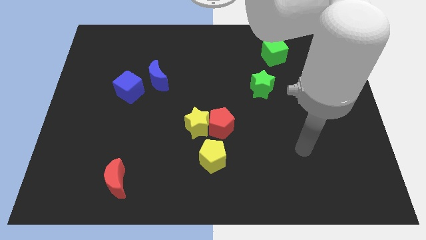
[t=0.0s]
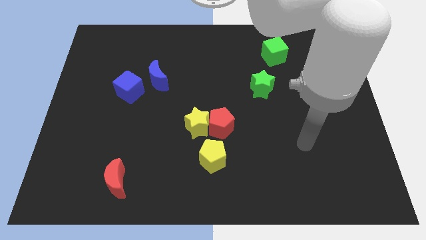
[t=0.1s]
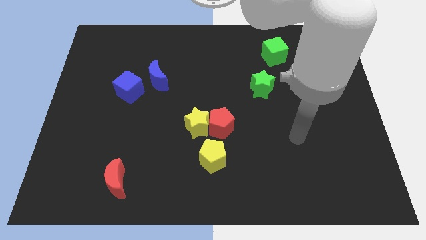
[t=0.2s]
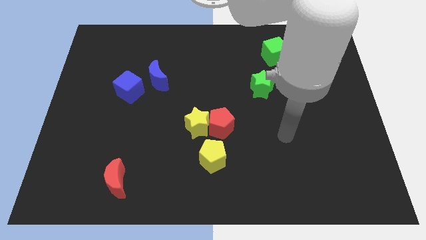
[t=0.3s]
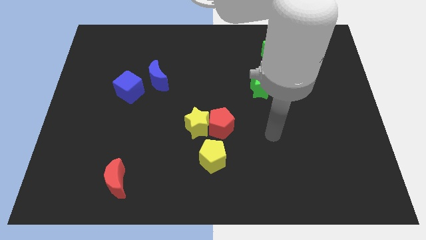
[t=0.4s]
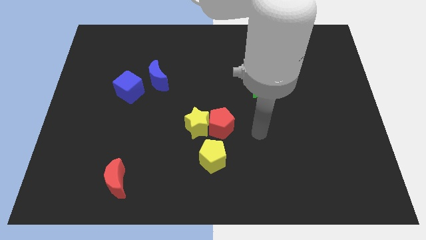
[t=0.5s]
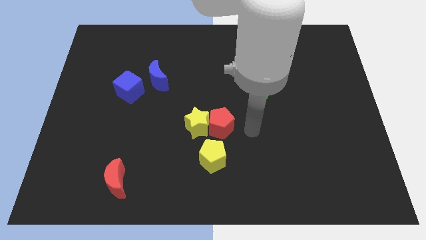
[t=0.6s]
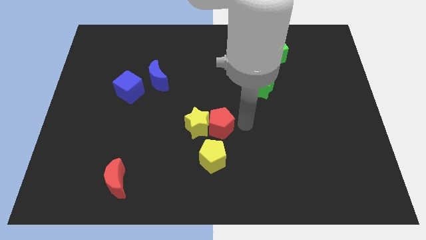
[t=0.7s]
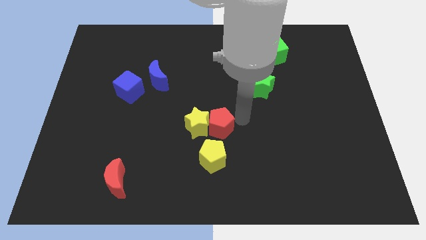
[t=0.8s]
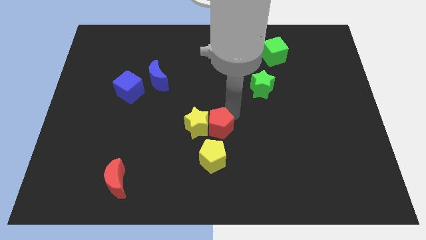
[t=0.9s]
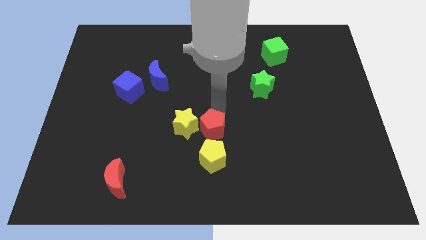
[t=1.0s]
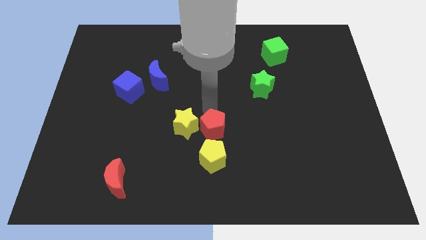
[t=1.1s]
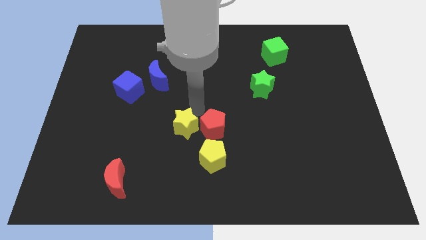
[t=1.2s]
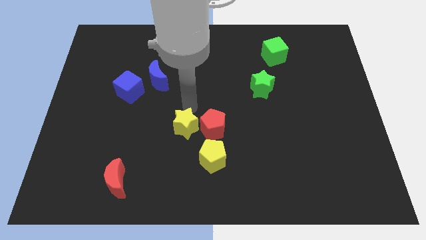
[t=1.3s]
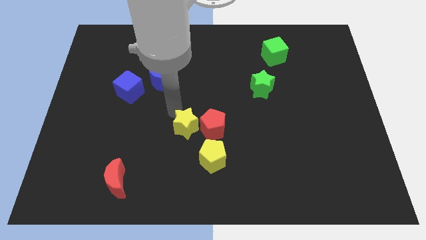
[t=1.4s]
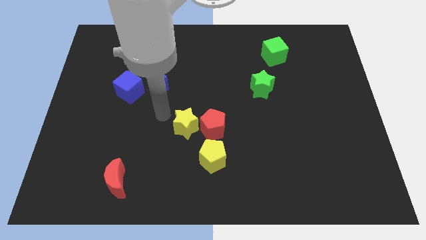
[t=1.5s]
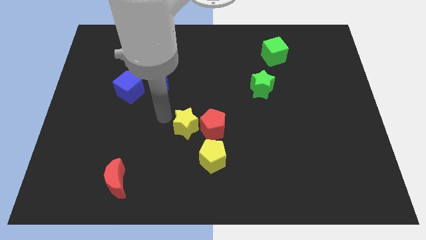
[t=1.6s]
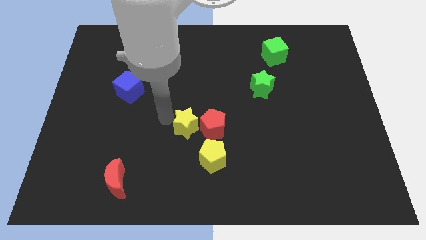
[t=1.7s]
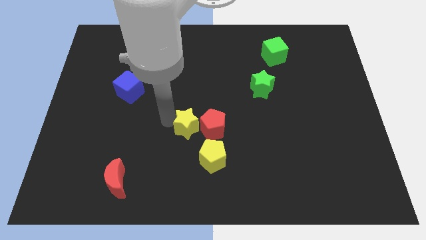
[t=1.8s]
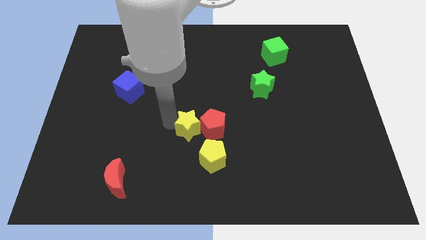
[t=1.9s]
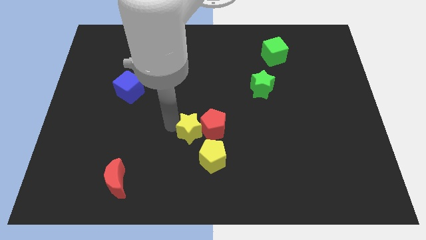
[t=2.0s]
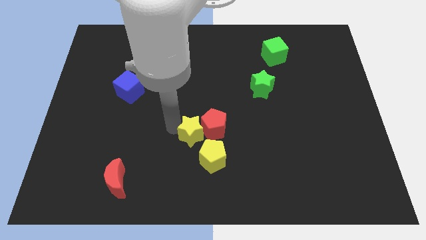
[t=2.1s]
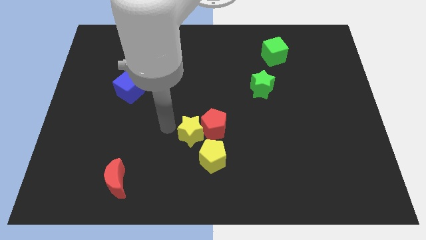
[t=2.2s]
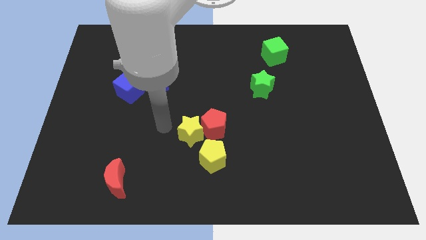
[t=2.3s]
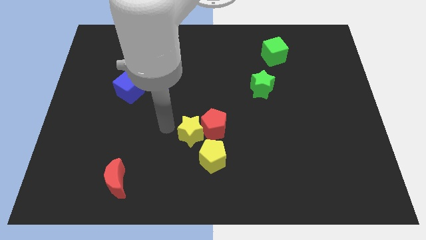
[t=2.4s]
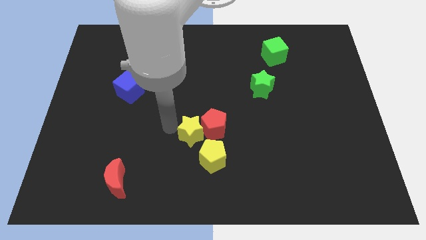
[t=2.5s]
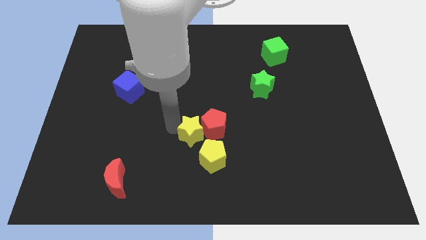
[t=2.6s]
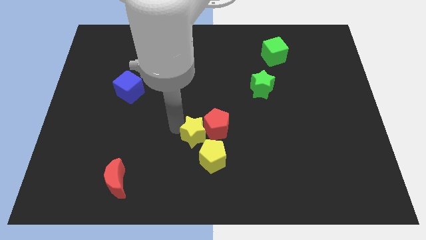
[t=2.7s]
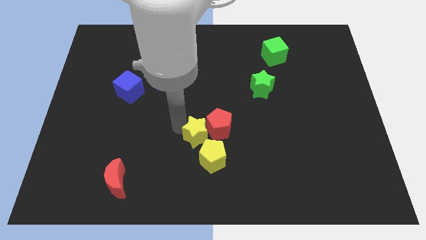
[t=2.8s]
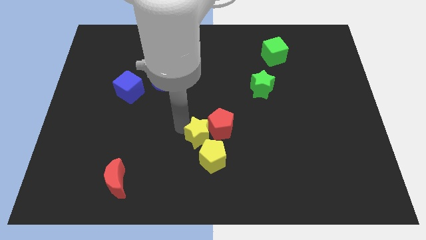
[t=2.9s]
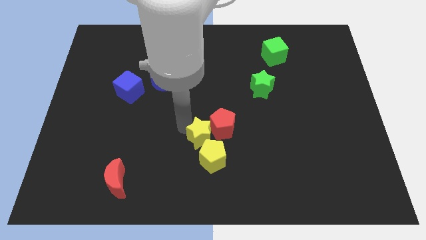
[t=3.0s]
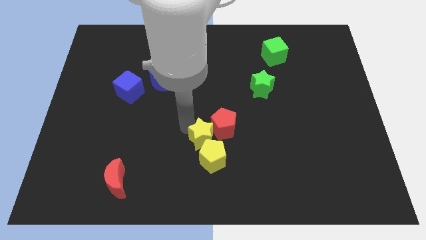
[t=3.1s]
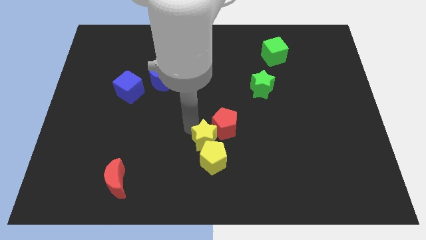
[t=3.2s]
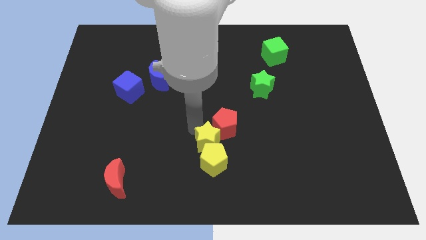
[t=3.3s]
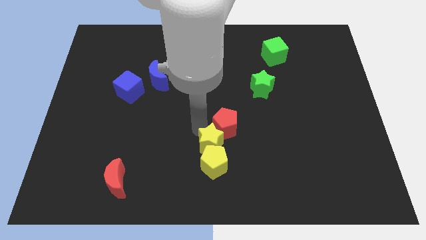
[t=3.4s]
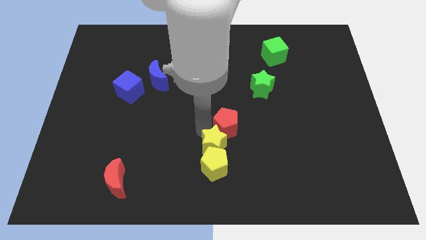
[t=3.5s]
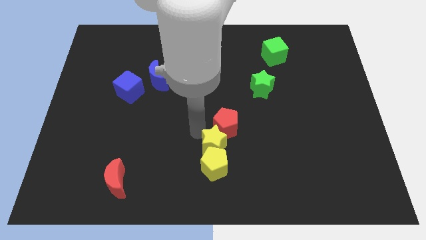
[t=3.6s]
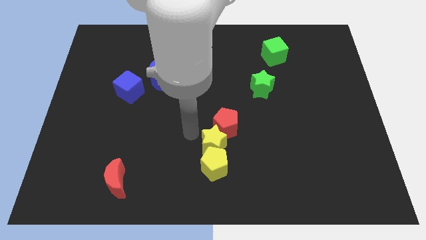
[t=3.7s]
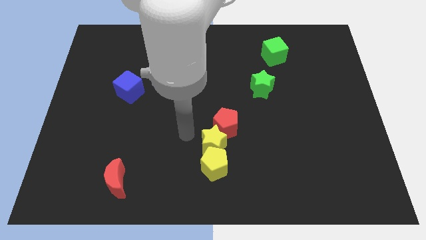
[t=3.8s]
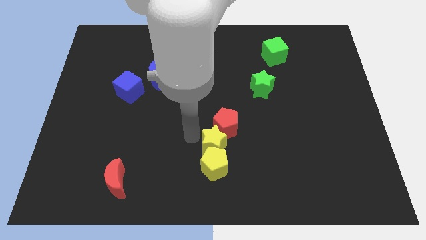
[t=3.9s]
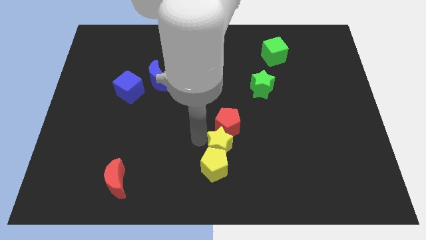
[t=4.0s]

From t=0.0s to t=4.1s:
slide the yellow star downwards and to the right a bit

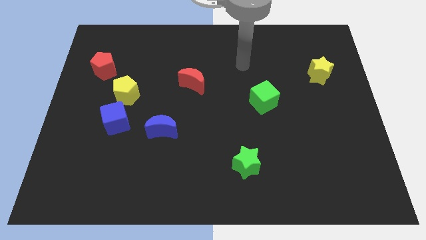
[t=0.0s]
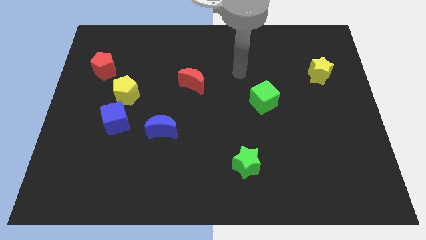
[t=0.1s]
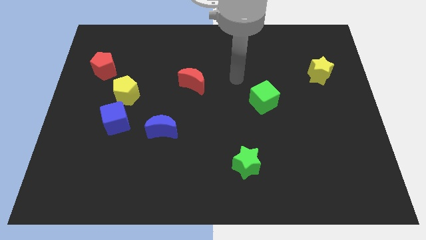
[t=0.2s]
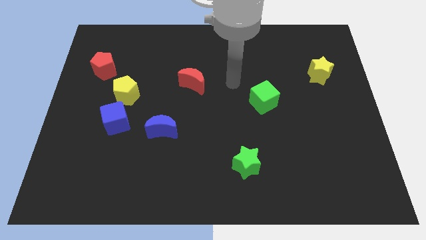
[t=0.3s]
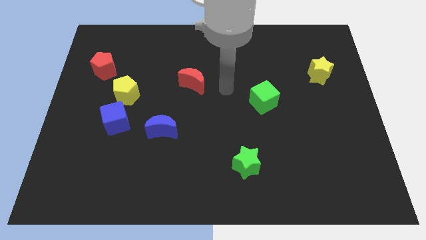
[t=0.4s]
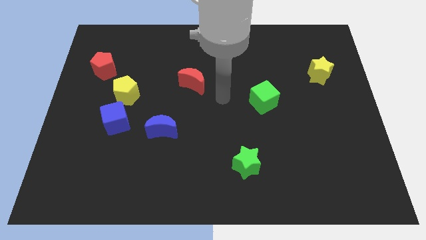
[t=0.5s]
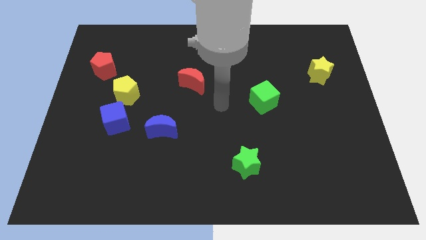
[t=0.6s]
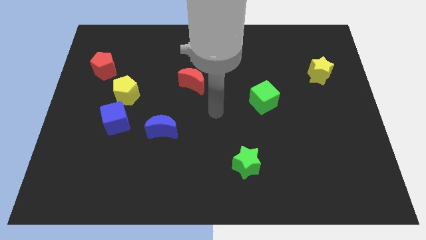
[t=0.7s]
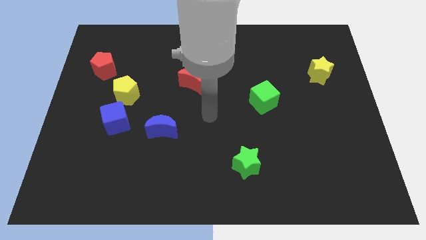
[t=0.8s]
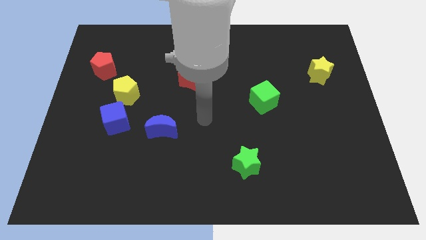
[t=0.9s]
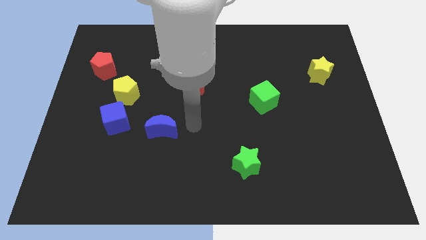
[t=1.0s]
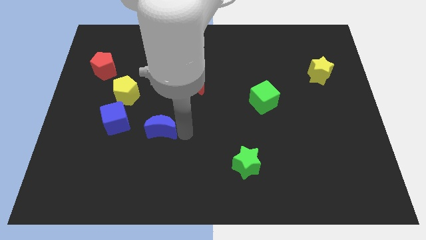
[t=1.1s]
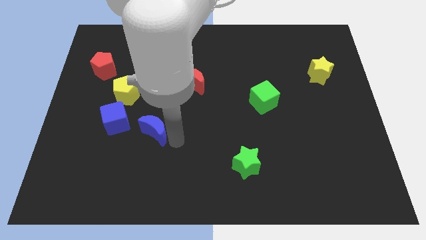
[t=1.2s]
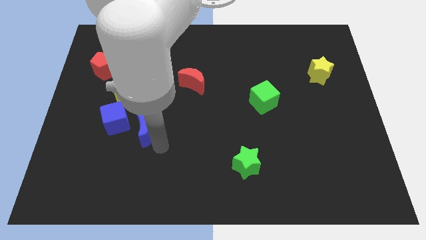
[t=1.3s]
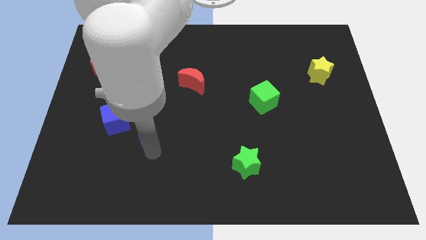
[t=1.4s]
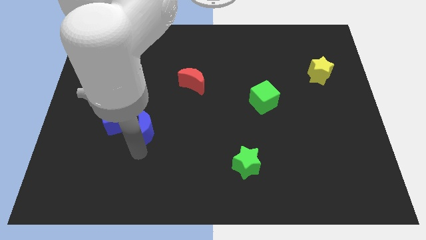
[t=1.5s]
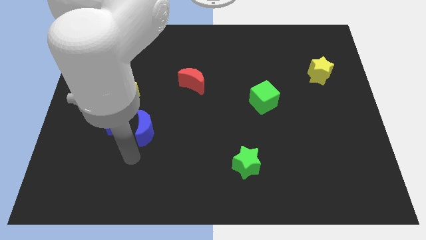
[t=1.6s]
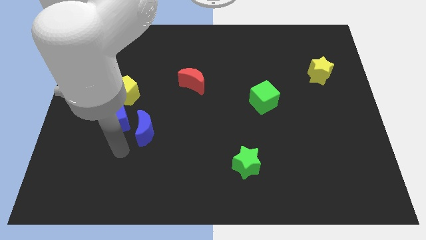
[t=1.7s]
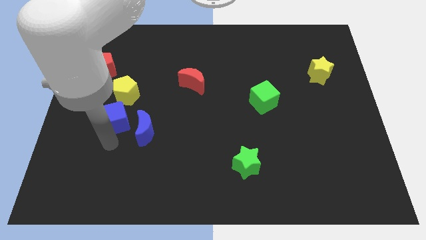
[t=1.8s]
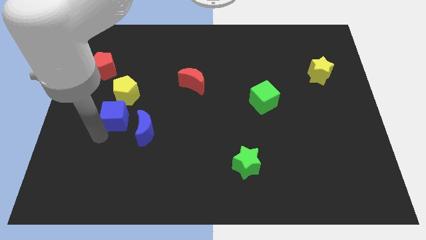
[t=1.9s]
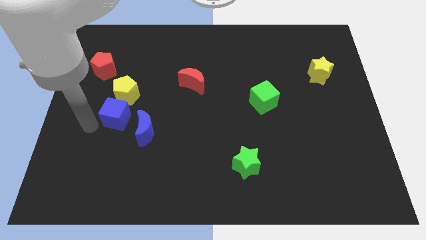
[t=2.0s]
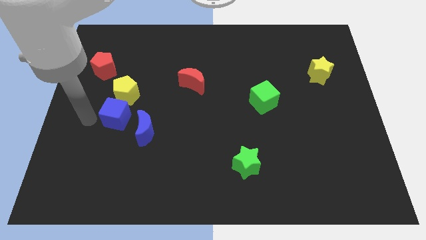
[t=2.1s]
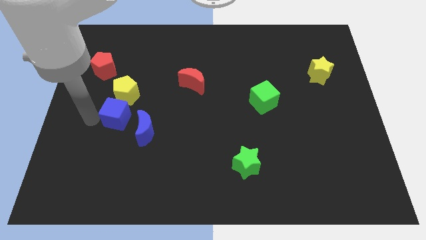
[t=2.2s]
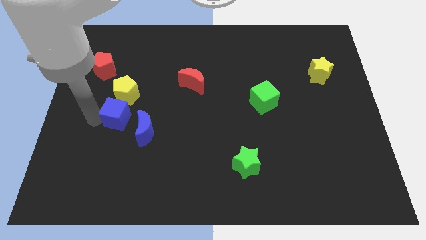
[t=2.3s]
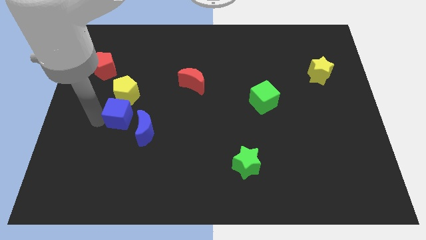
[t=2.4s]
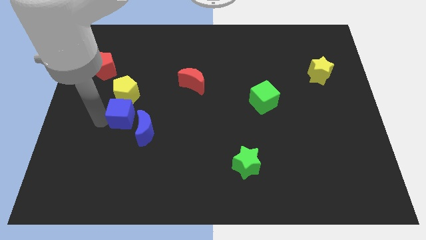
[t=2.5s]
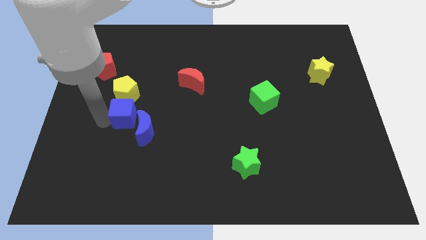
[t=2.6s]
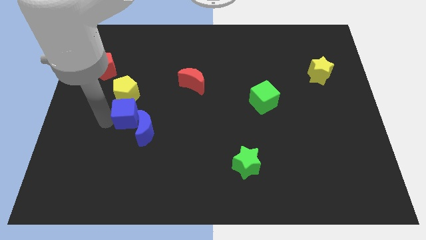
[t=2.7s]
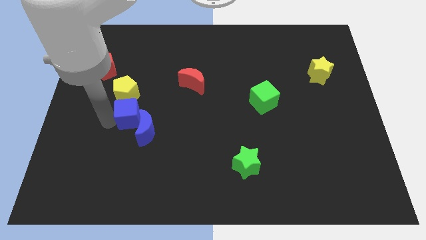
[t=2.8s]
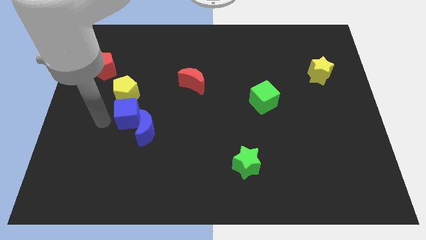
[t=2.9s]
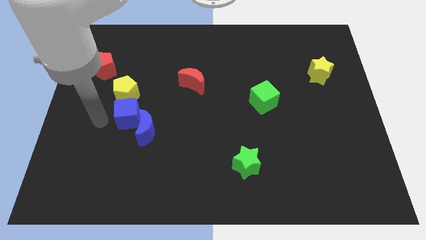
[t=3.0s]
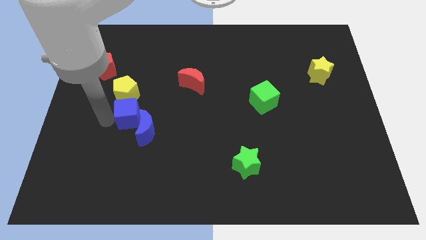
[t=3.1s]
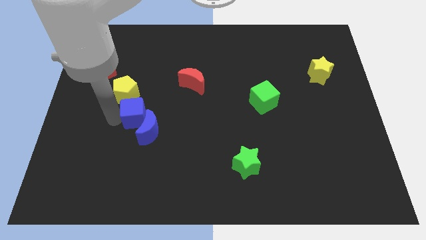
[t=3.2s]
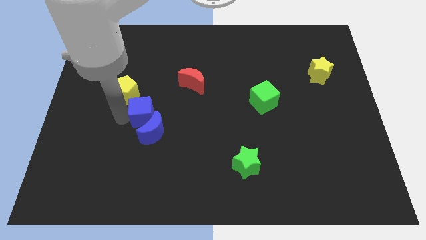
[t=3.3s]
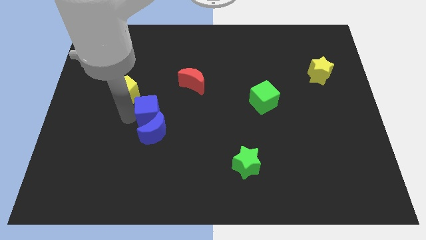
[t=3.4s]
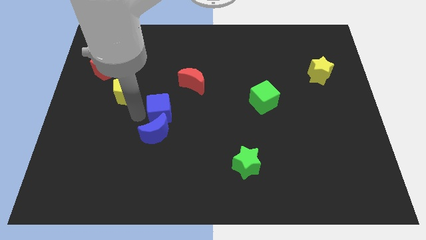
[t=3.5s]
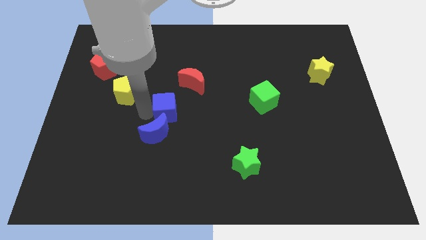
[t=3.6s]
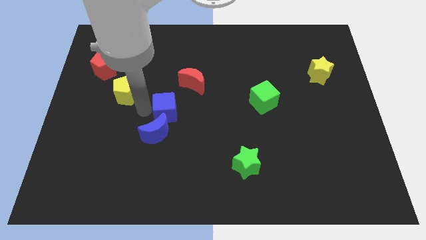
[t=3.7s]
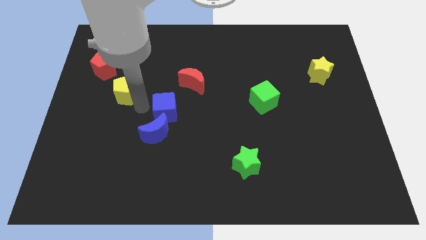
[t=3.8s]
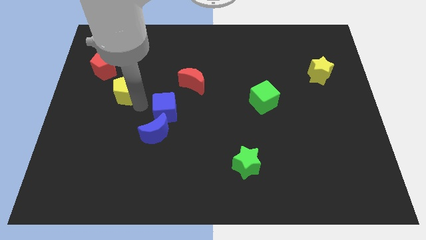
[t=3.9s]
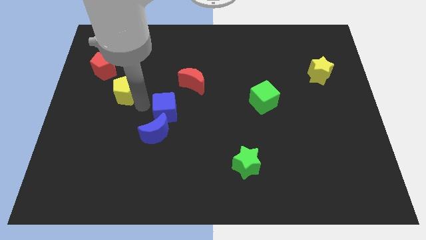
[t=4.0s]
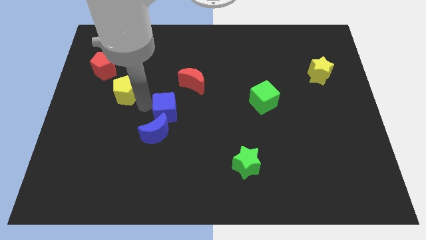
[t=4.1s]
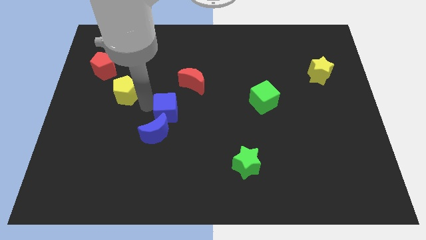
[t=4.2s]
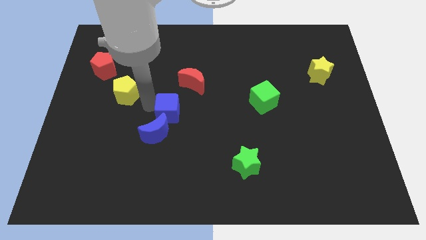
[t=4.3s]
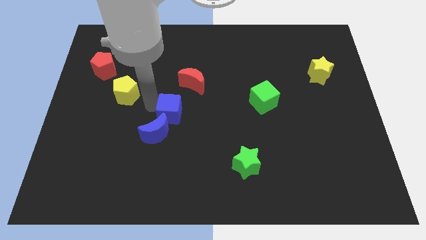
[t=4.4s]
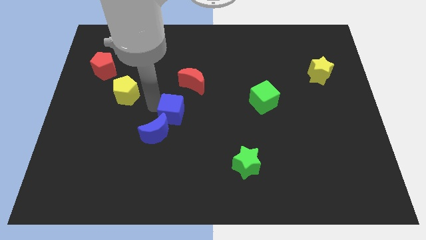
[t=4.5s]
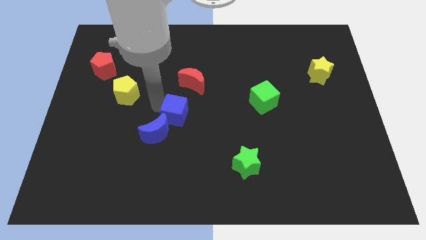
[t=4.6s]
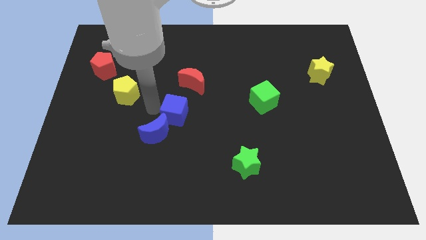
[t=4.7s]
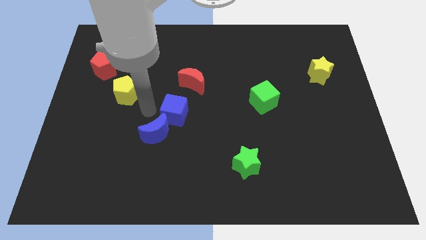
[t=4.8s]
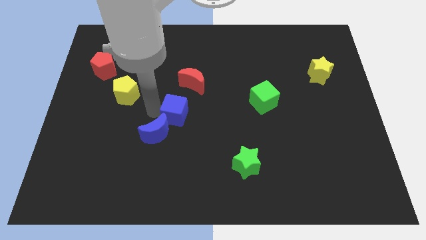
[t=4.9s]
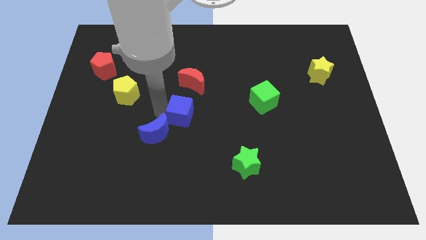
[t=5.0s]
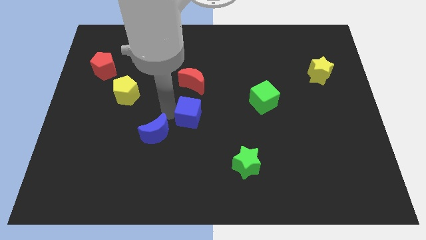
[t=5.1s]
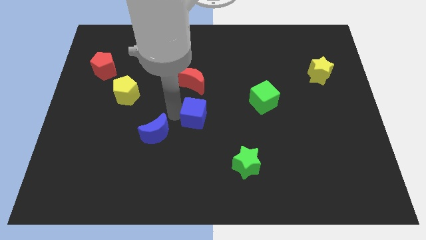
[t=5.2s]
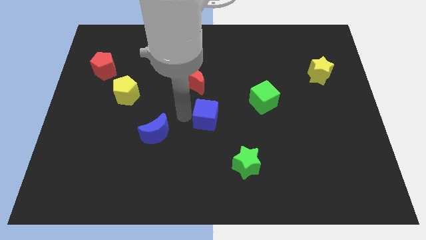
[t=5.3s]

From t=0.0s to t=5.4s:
move the blue cube right
